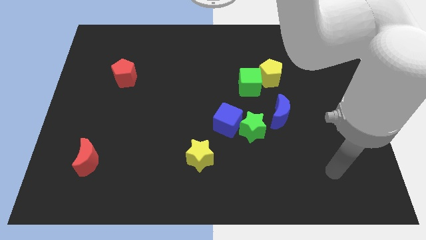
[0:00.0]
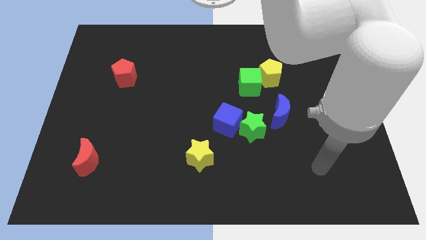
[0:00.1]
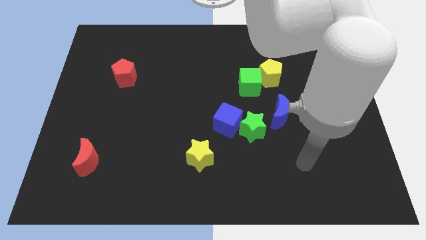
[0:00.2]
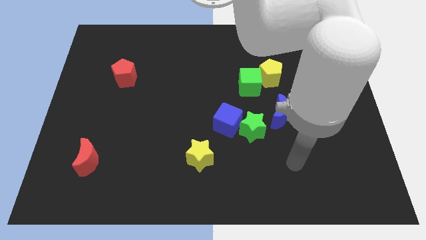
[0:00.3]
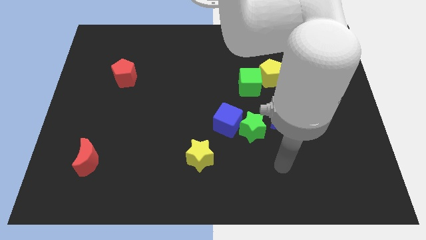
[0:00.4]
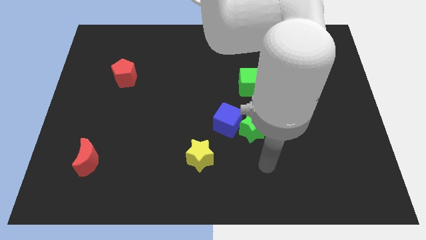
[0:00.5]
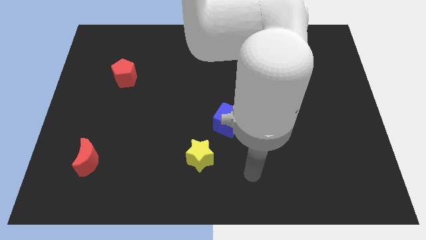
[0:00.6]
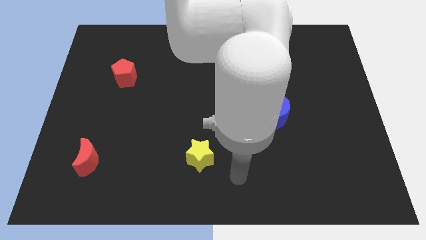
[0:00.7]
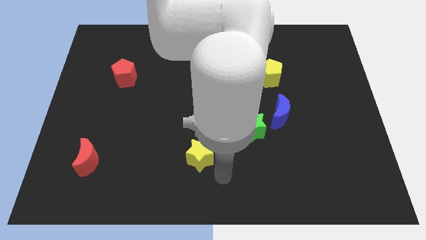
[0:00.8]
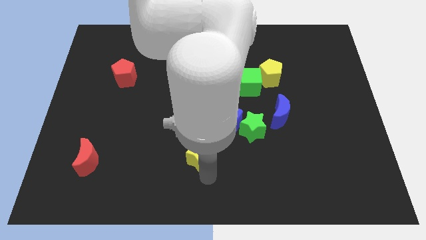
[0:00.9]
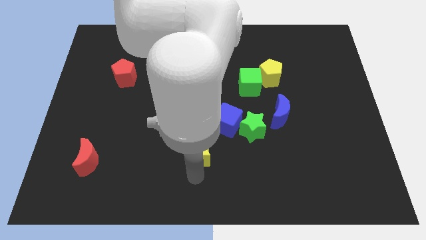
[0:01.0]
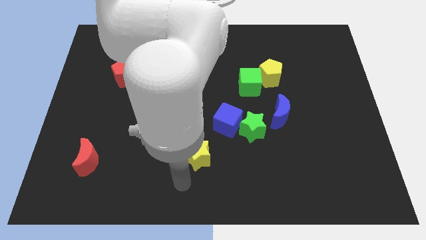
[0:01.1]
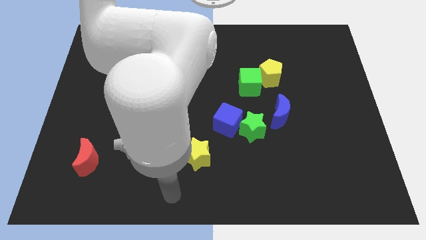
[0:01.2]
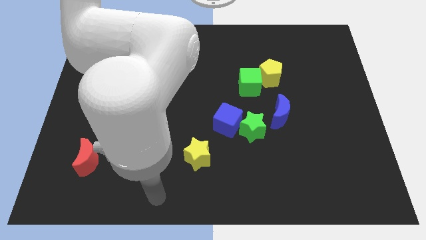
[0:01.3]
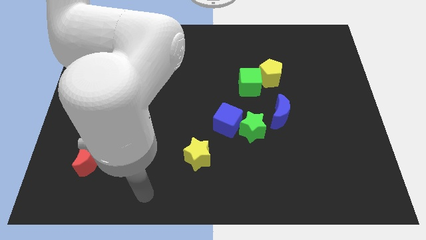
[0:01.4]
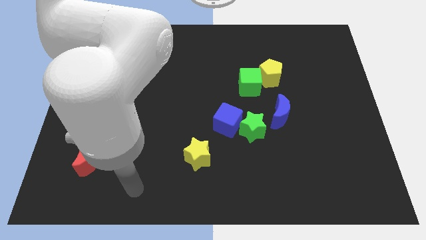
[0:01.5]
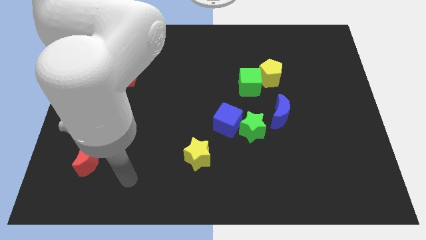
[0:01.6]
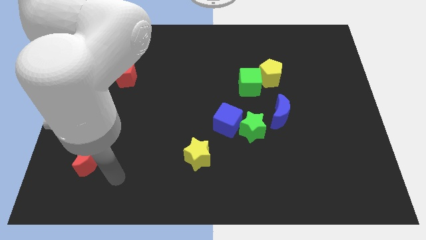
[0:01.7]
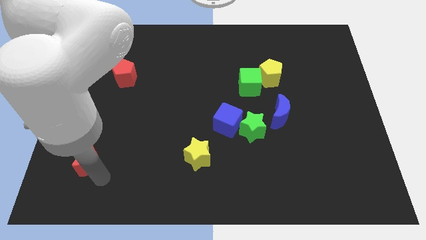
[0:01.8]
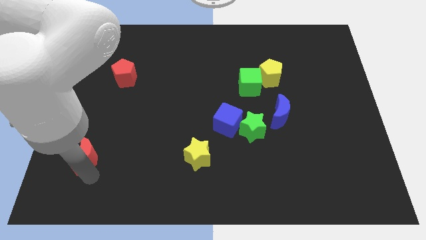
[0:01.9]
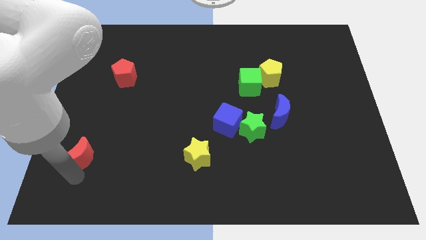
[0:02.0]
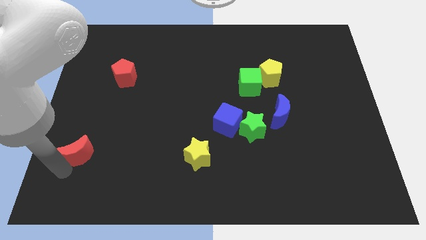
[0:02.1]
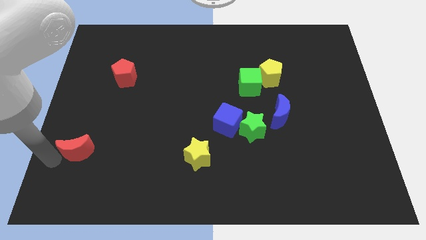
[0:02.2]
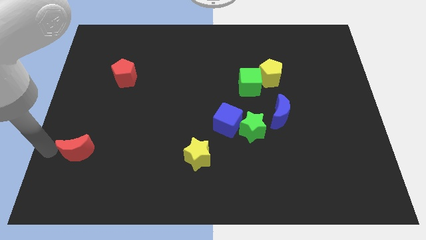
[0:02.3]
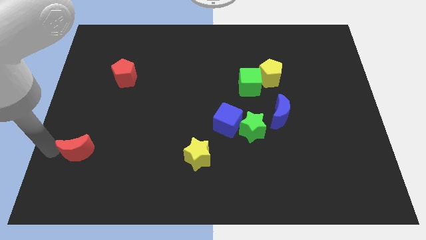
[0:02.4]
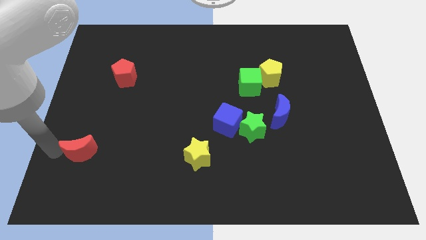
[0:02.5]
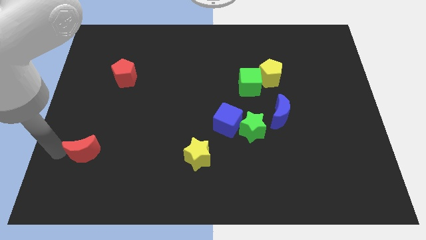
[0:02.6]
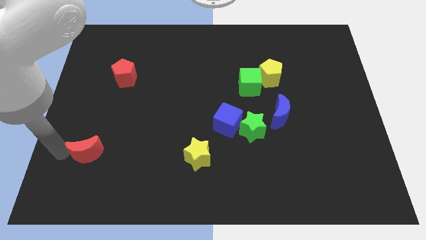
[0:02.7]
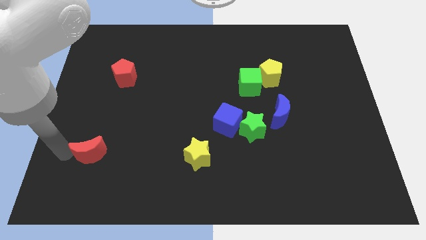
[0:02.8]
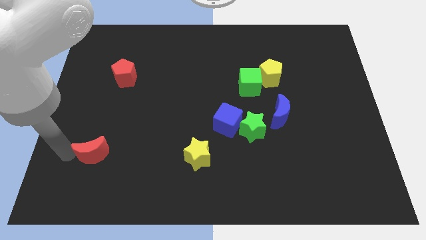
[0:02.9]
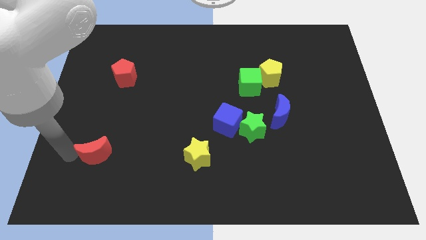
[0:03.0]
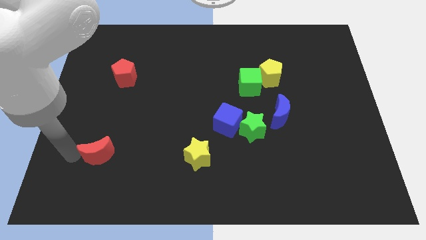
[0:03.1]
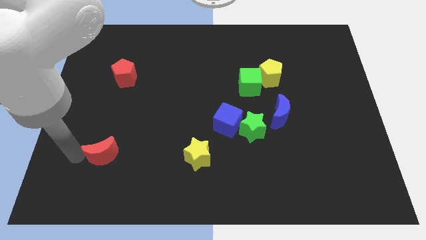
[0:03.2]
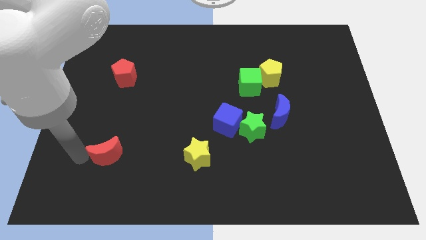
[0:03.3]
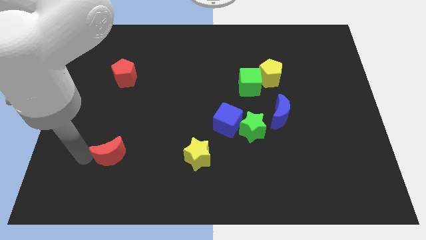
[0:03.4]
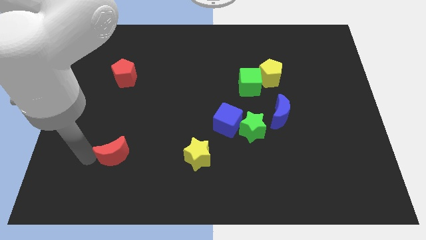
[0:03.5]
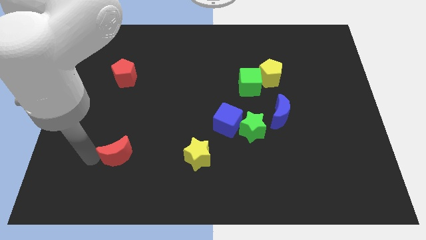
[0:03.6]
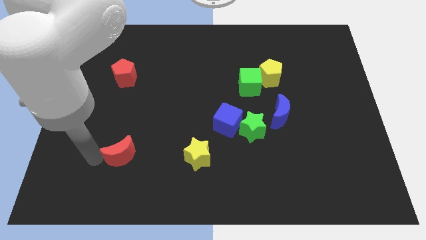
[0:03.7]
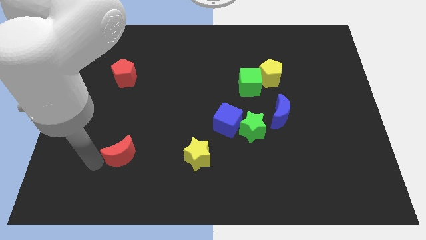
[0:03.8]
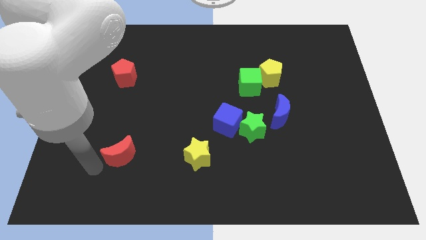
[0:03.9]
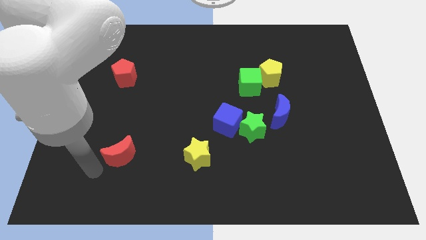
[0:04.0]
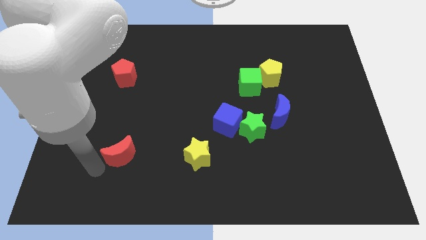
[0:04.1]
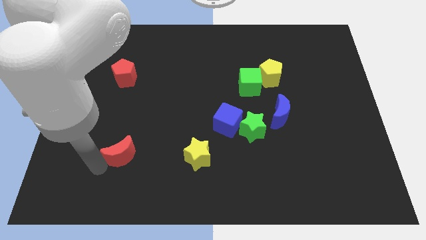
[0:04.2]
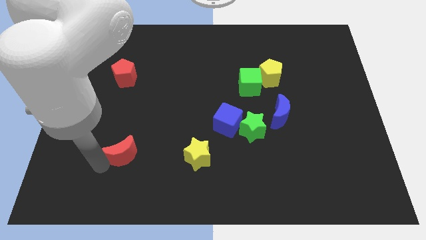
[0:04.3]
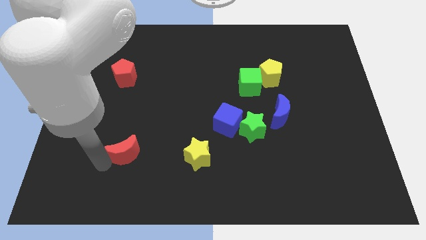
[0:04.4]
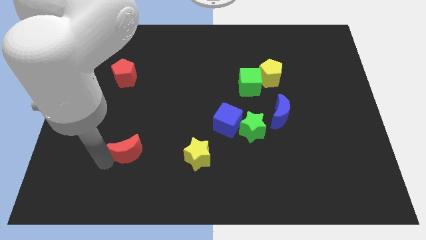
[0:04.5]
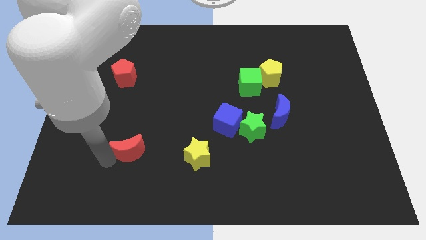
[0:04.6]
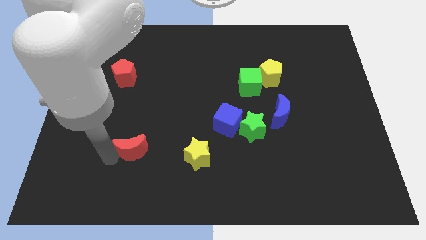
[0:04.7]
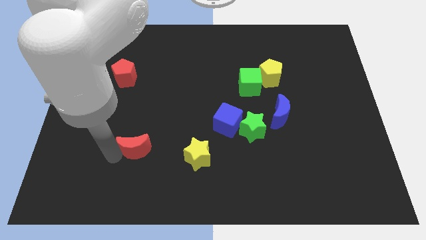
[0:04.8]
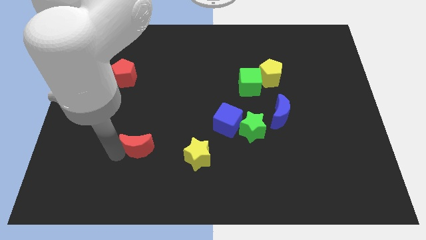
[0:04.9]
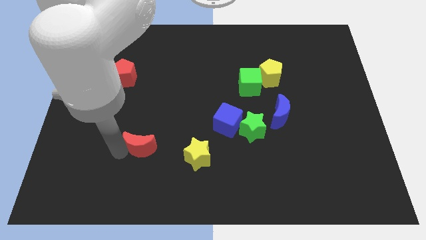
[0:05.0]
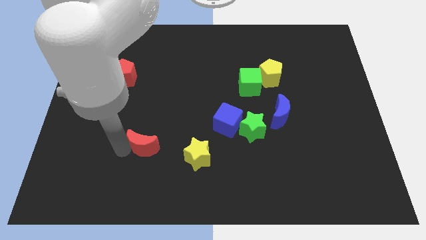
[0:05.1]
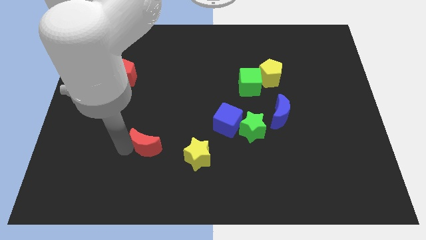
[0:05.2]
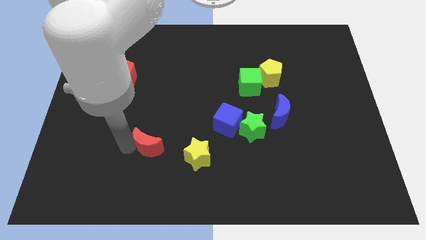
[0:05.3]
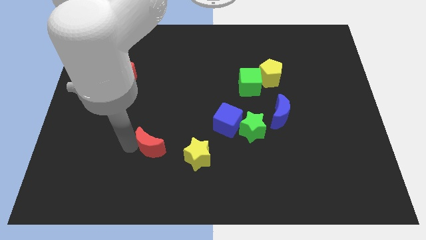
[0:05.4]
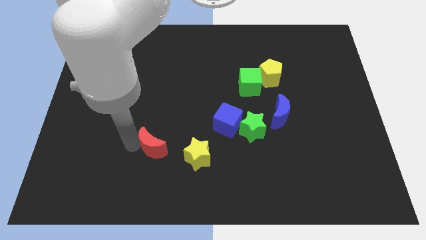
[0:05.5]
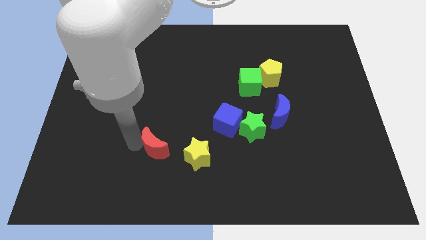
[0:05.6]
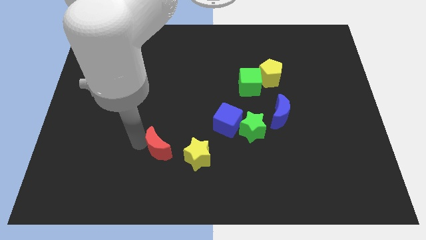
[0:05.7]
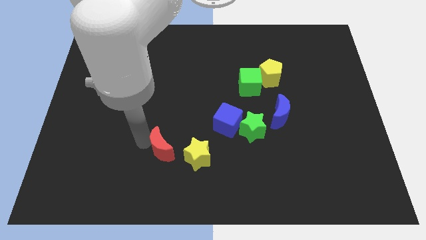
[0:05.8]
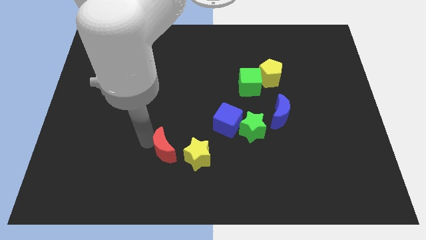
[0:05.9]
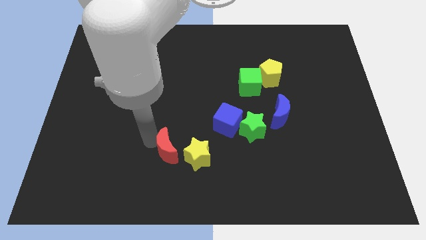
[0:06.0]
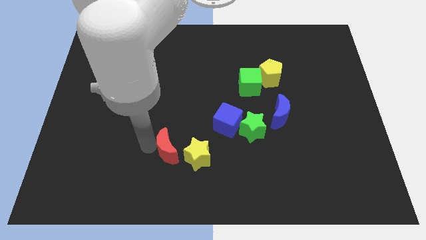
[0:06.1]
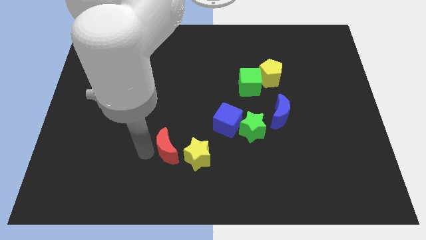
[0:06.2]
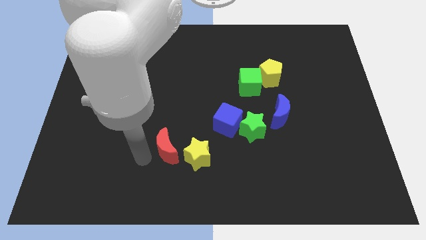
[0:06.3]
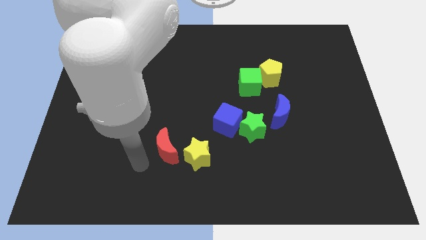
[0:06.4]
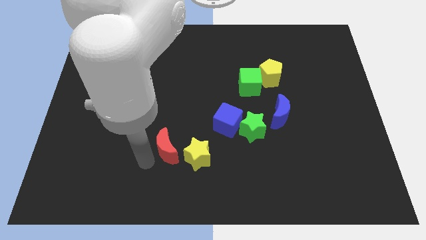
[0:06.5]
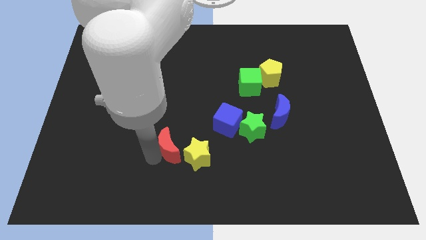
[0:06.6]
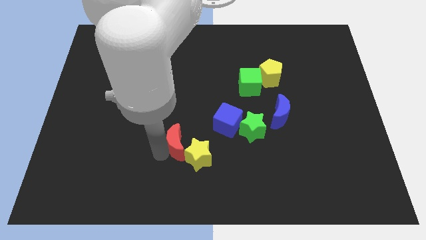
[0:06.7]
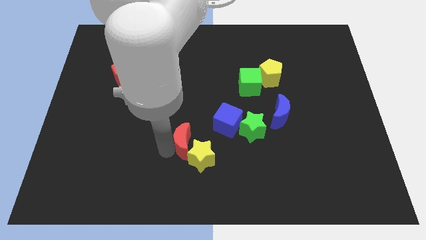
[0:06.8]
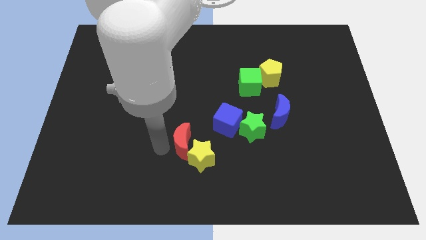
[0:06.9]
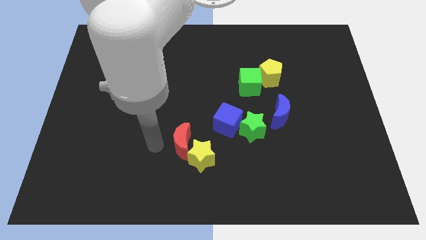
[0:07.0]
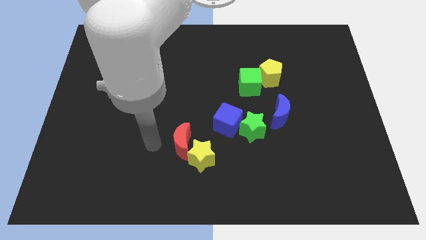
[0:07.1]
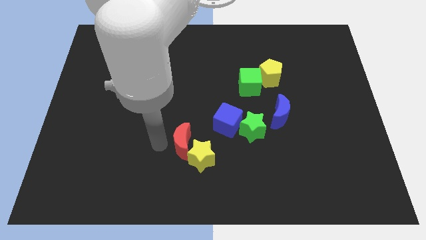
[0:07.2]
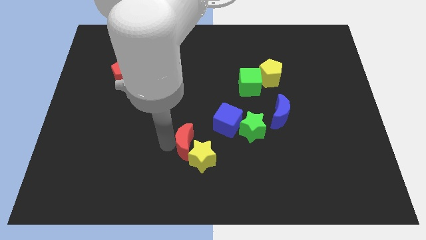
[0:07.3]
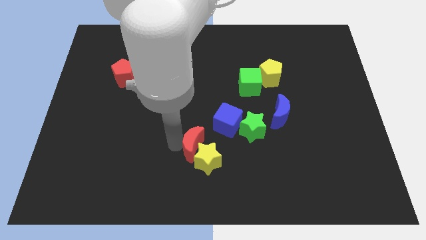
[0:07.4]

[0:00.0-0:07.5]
slide the red moon to the right

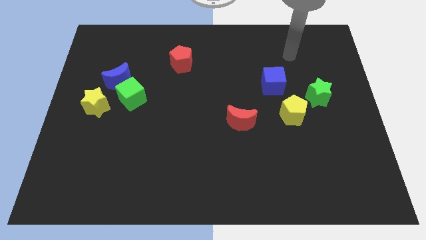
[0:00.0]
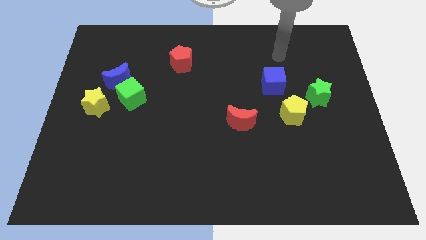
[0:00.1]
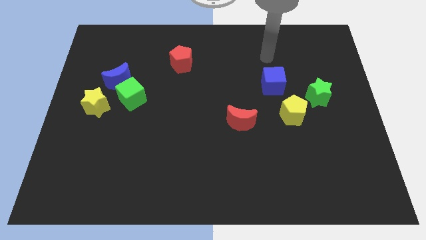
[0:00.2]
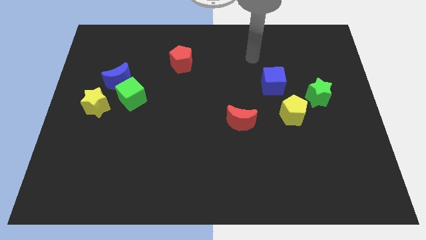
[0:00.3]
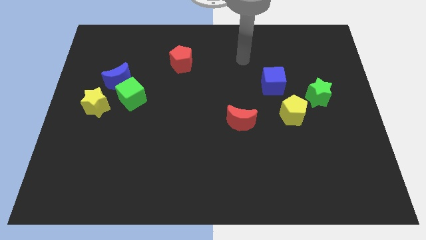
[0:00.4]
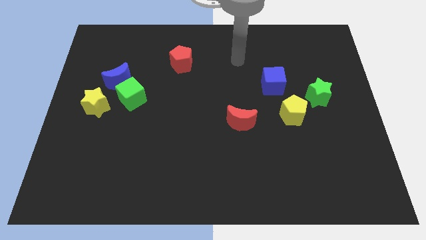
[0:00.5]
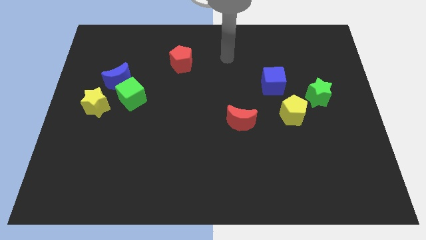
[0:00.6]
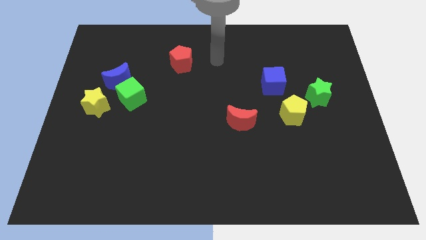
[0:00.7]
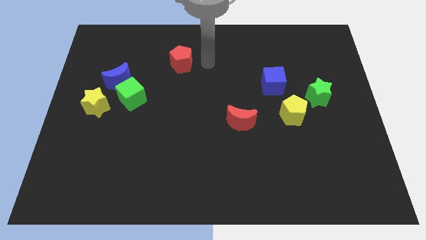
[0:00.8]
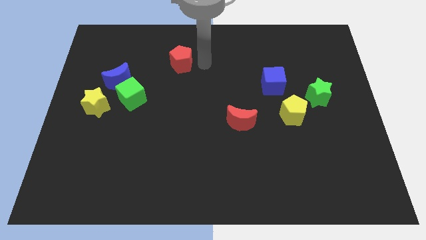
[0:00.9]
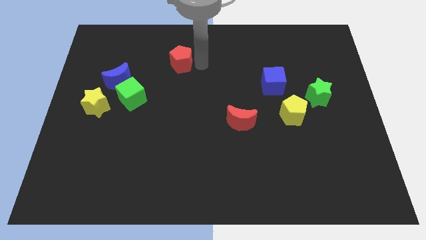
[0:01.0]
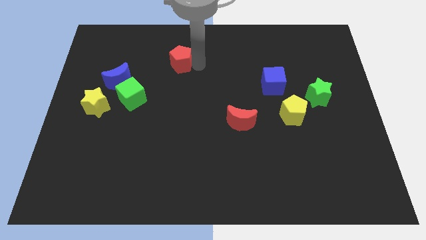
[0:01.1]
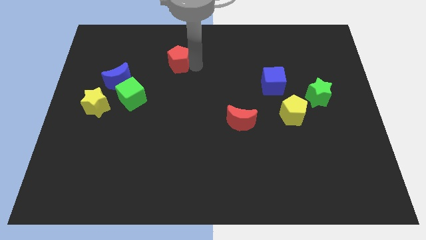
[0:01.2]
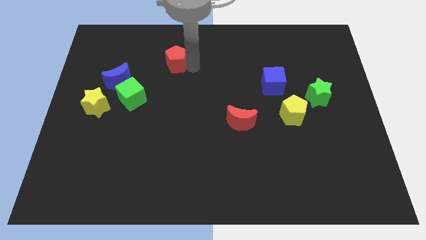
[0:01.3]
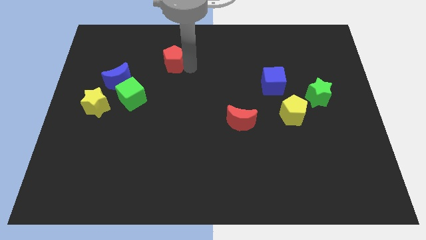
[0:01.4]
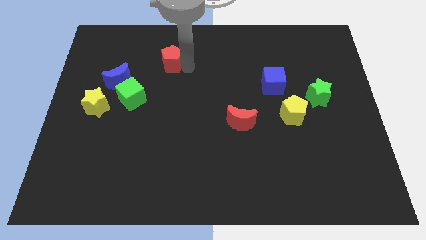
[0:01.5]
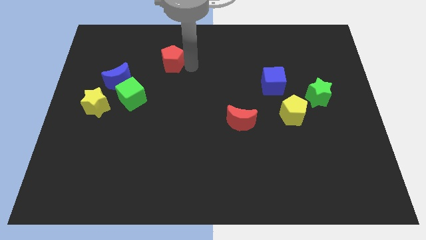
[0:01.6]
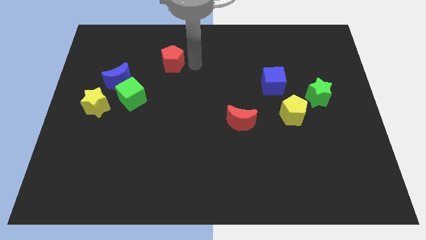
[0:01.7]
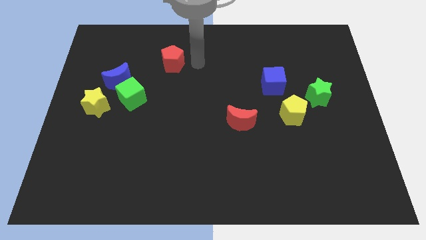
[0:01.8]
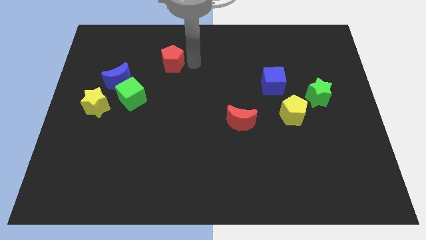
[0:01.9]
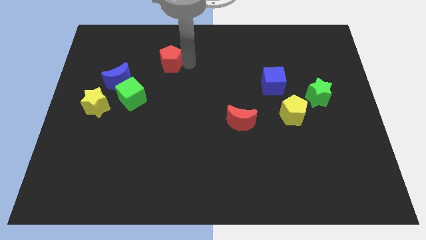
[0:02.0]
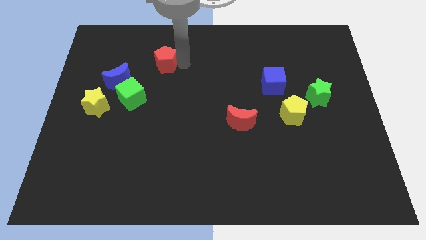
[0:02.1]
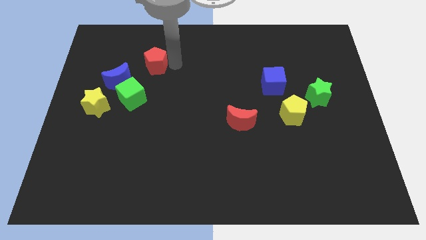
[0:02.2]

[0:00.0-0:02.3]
slightly move the red pentagon to the left
